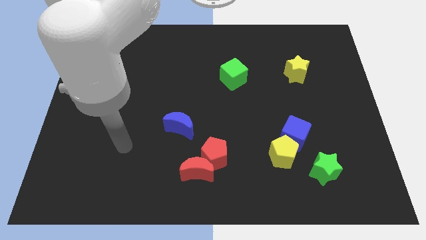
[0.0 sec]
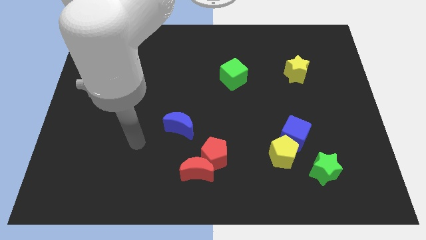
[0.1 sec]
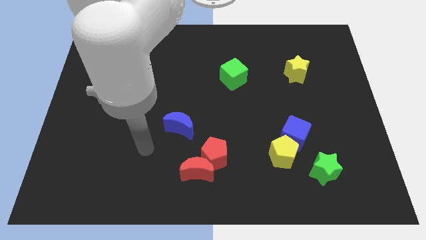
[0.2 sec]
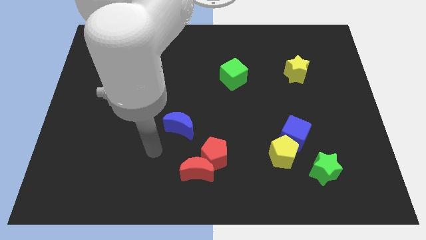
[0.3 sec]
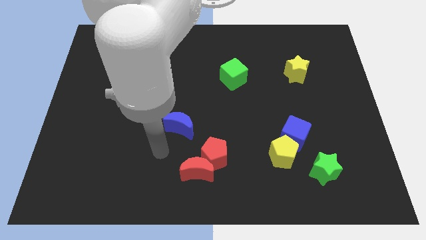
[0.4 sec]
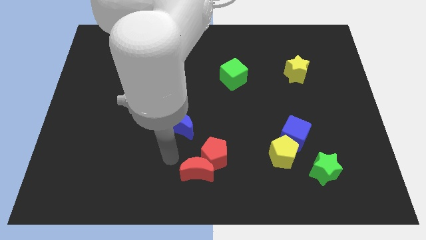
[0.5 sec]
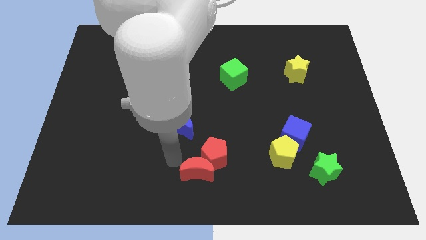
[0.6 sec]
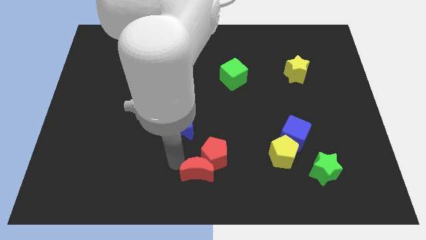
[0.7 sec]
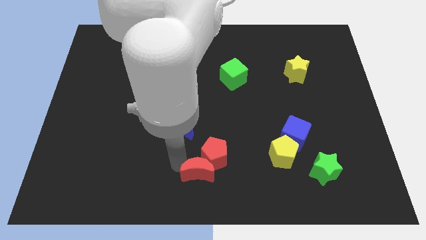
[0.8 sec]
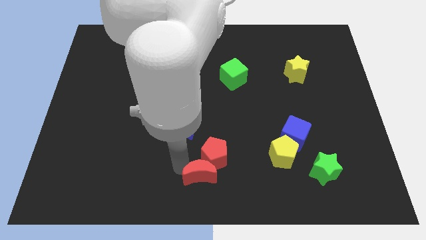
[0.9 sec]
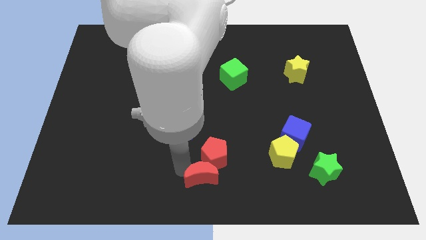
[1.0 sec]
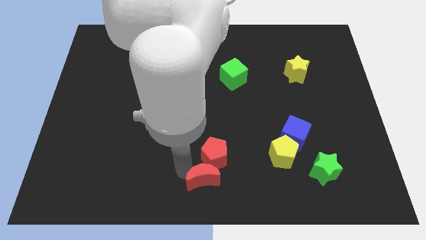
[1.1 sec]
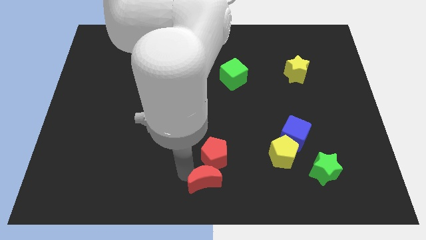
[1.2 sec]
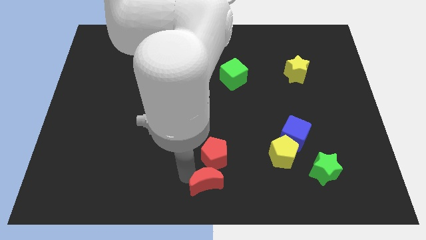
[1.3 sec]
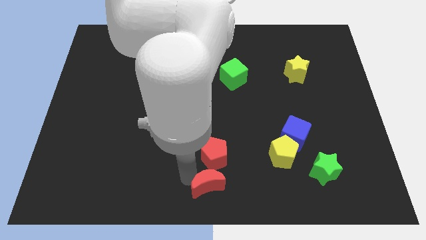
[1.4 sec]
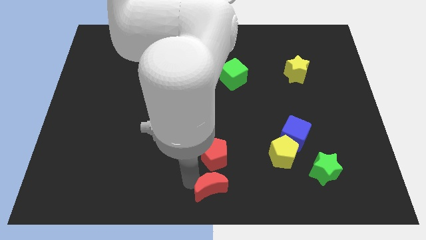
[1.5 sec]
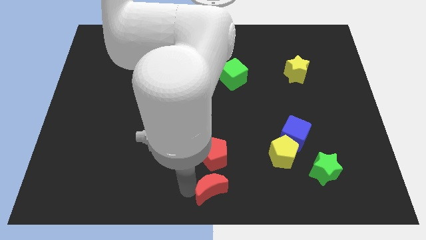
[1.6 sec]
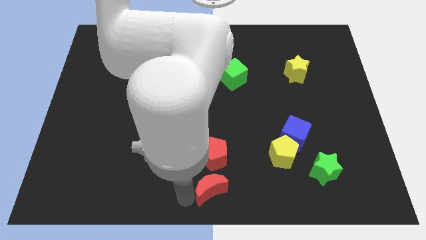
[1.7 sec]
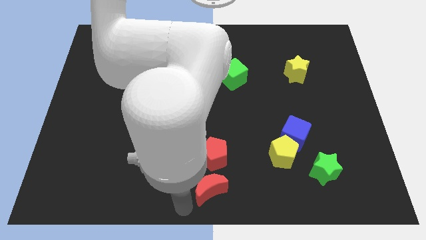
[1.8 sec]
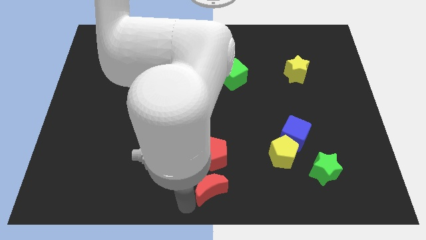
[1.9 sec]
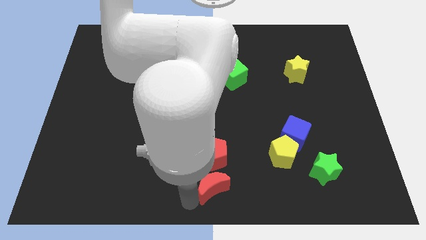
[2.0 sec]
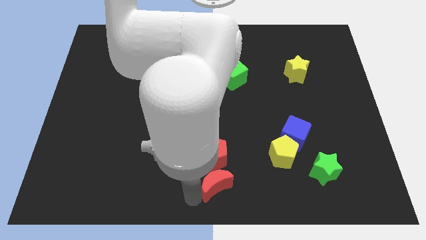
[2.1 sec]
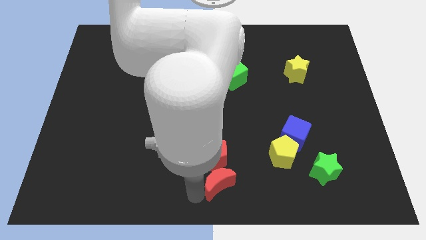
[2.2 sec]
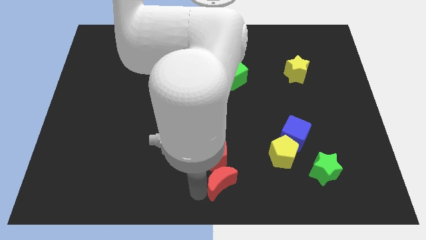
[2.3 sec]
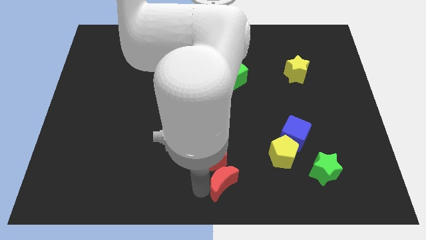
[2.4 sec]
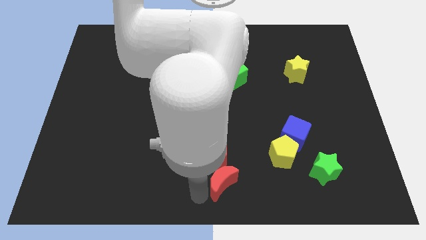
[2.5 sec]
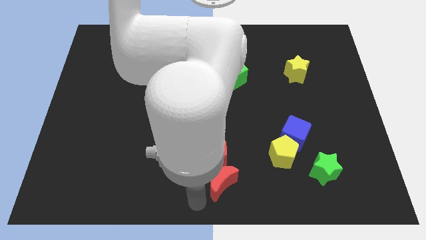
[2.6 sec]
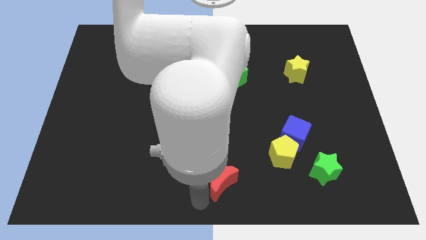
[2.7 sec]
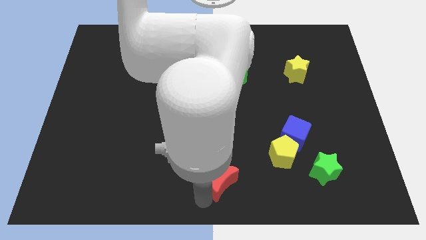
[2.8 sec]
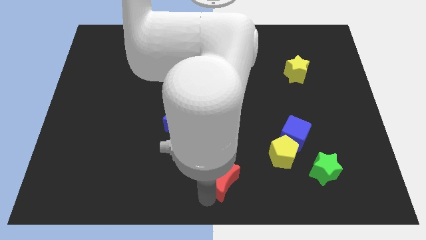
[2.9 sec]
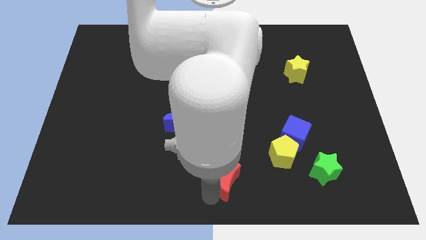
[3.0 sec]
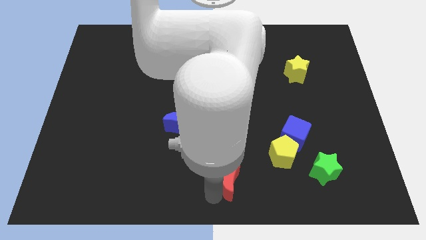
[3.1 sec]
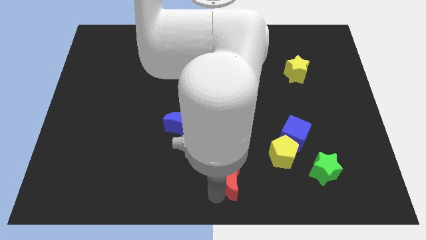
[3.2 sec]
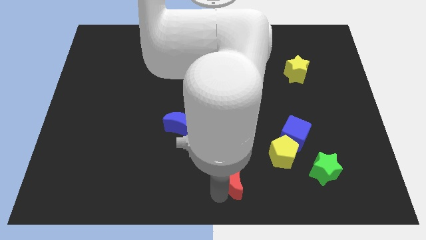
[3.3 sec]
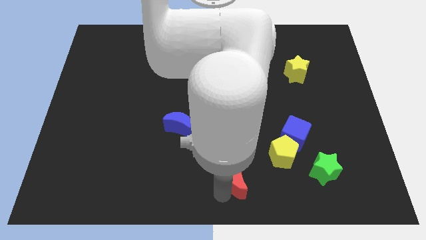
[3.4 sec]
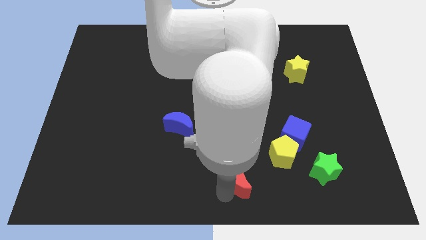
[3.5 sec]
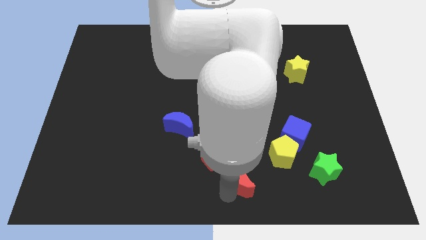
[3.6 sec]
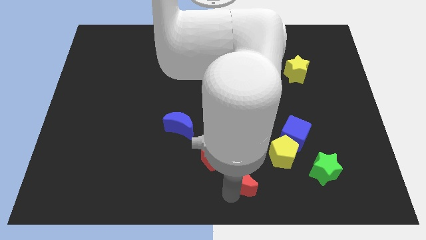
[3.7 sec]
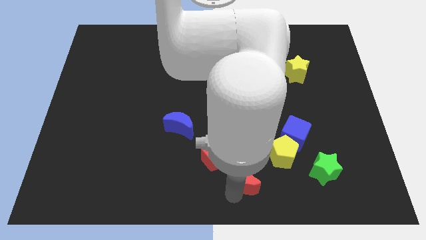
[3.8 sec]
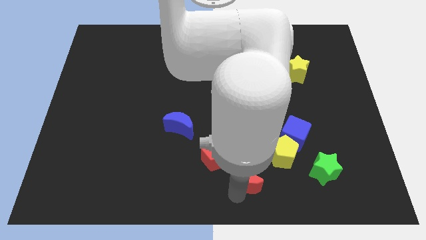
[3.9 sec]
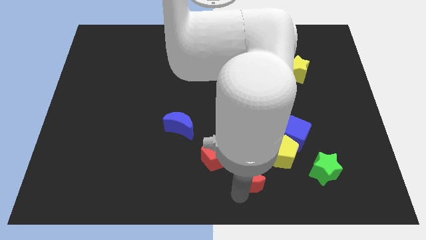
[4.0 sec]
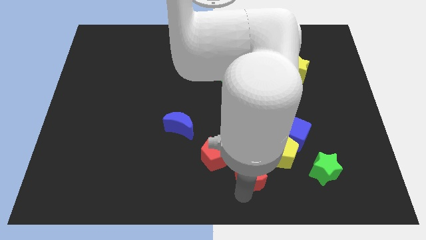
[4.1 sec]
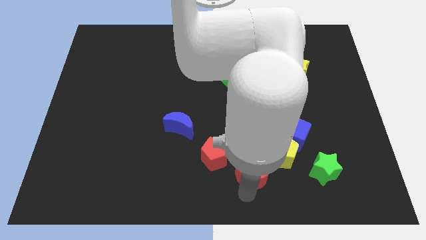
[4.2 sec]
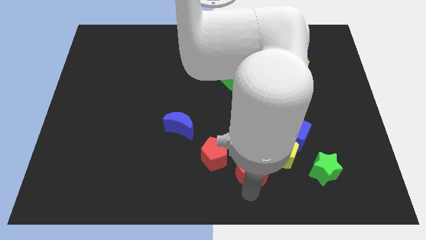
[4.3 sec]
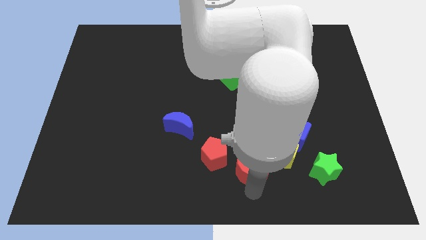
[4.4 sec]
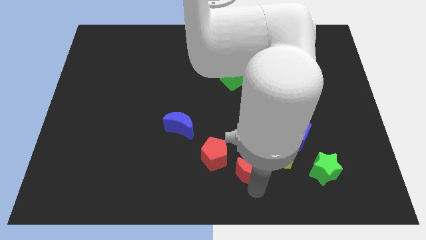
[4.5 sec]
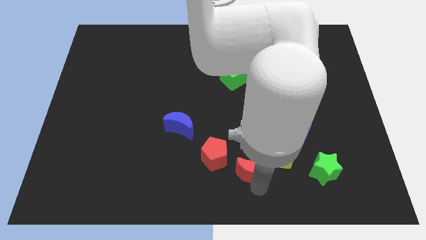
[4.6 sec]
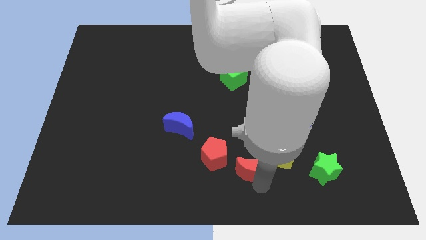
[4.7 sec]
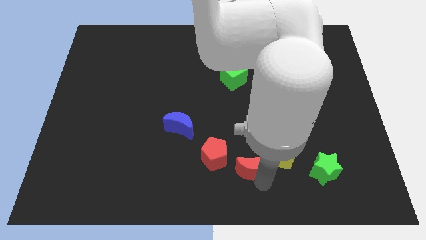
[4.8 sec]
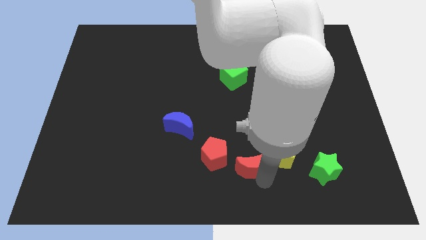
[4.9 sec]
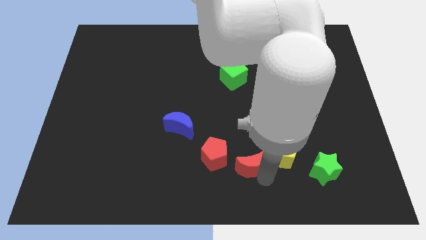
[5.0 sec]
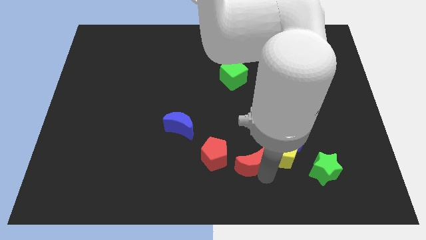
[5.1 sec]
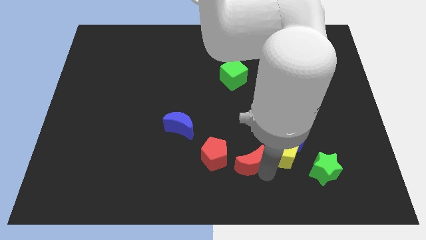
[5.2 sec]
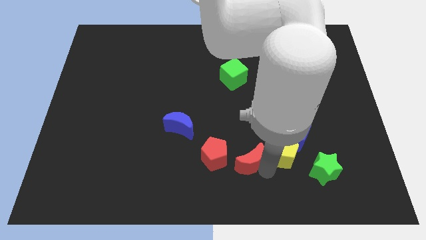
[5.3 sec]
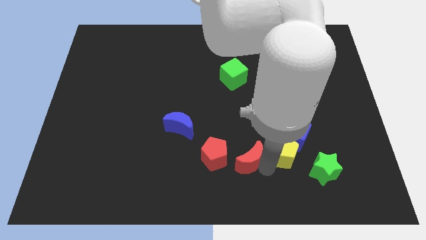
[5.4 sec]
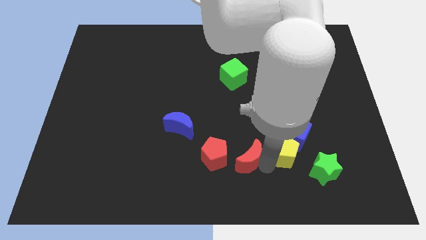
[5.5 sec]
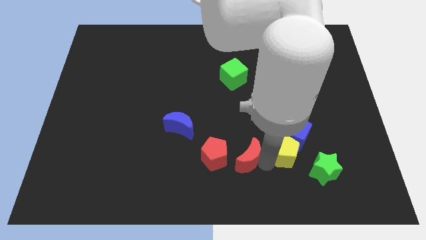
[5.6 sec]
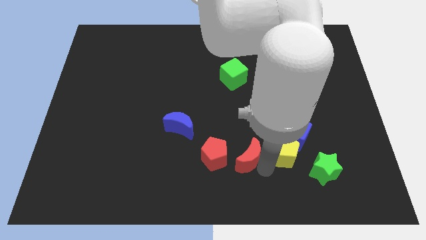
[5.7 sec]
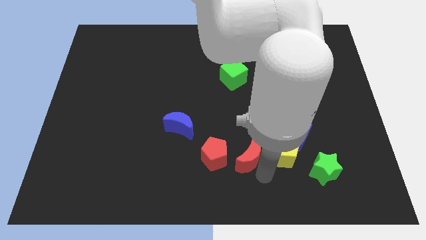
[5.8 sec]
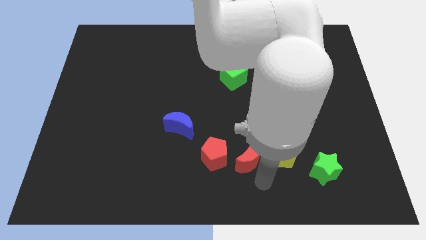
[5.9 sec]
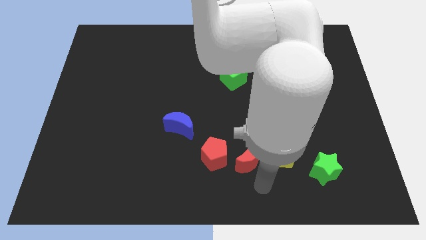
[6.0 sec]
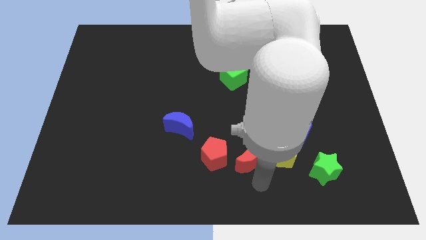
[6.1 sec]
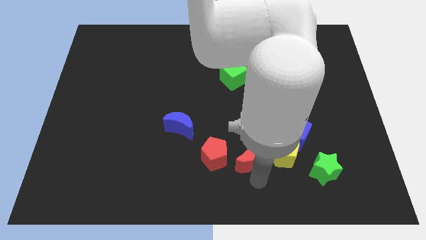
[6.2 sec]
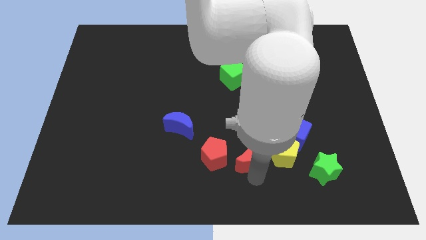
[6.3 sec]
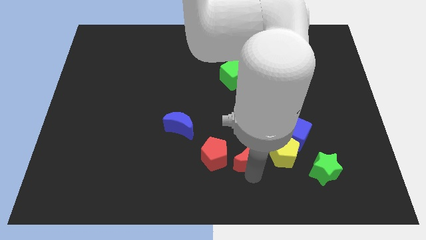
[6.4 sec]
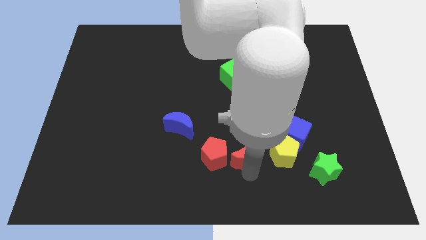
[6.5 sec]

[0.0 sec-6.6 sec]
slide the red moon to the top right of the red pentagon

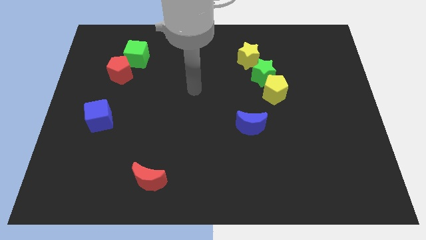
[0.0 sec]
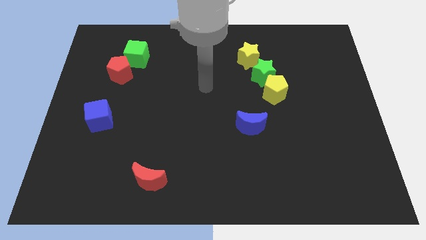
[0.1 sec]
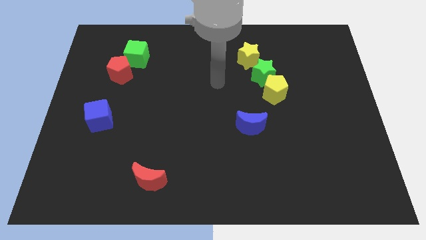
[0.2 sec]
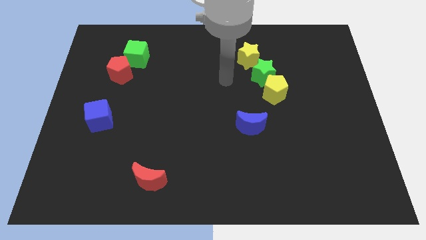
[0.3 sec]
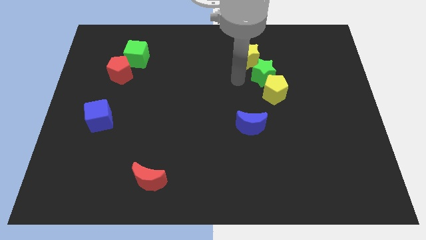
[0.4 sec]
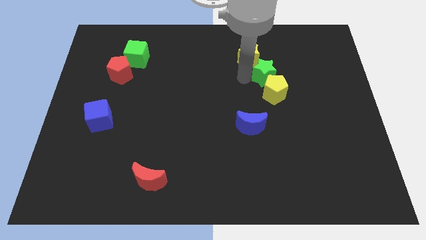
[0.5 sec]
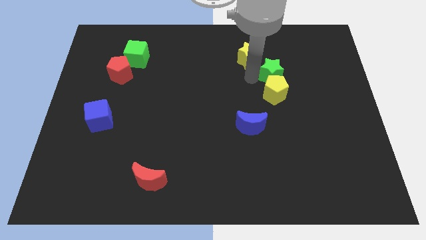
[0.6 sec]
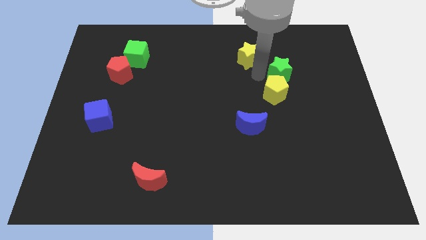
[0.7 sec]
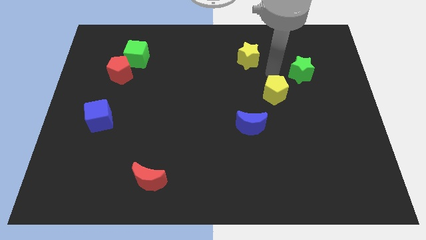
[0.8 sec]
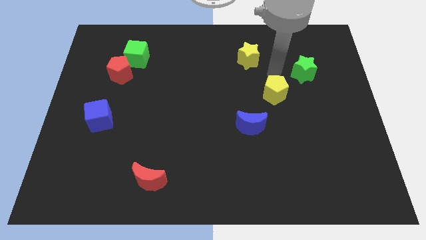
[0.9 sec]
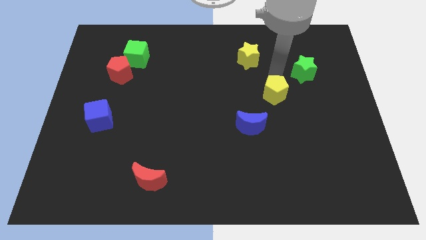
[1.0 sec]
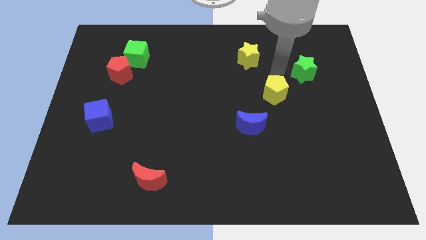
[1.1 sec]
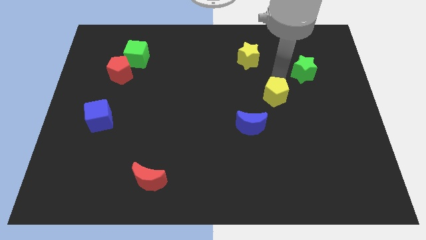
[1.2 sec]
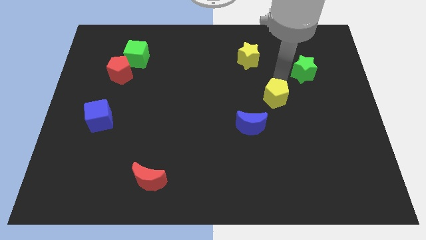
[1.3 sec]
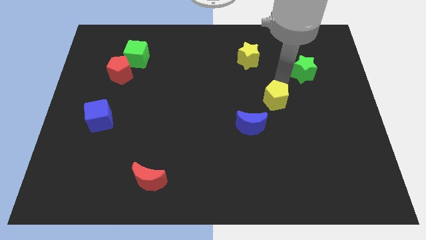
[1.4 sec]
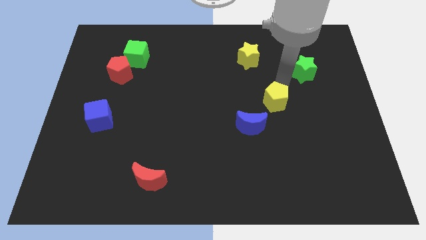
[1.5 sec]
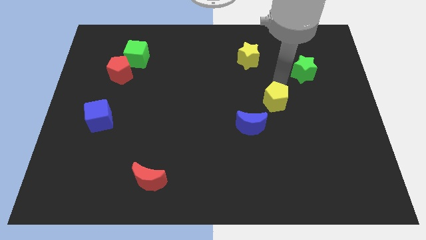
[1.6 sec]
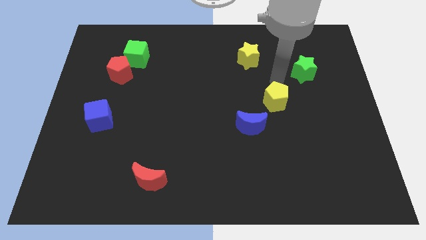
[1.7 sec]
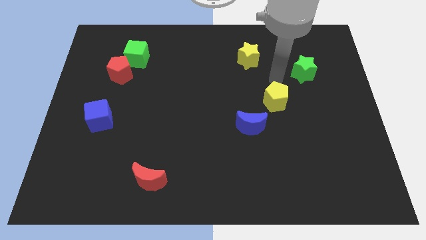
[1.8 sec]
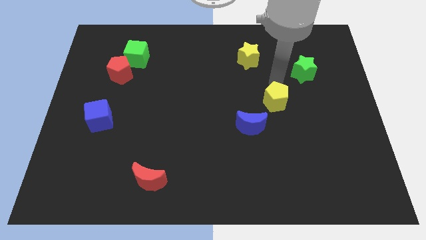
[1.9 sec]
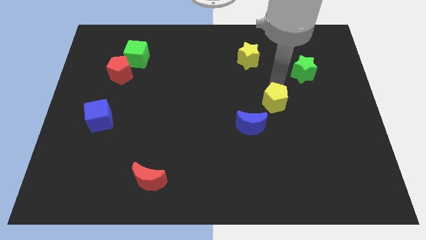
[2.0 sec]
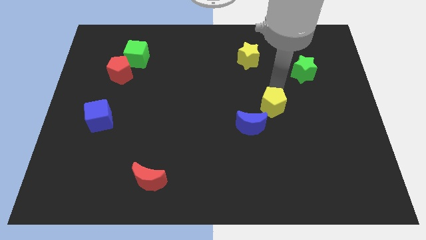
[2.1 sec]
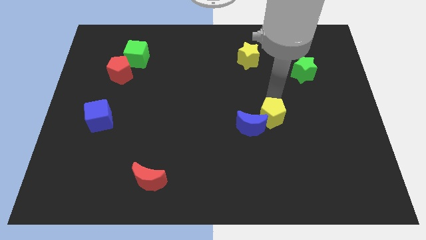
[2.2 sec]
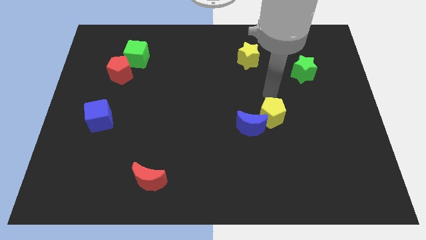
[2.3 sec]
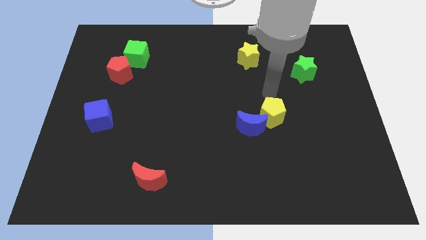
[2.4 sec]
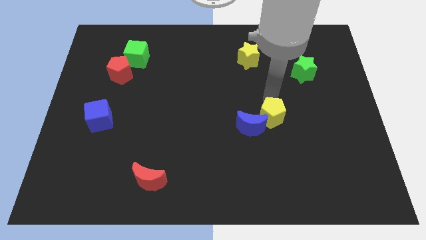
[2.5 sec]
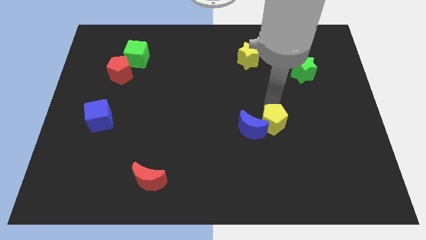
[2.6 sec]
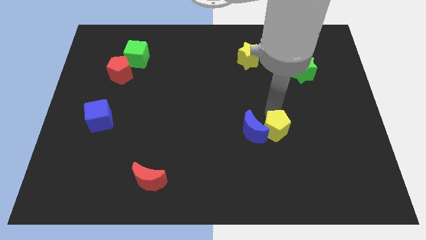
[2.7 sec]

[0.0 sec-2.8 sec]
move the yellow pentagon to the bottom right of the blue moon
